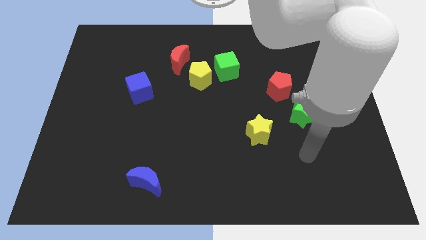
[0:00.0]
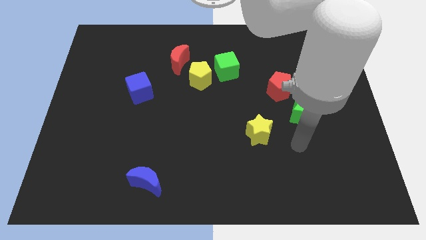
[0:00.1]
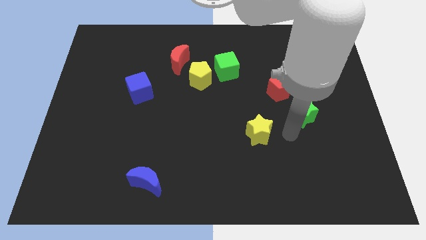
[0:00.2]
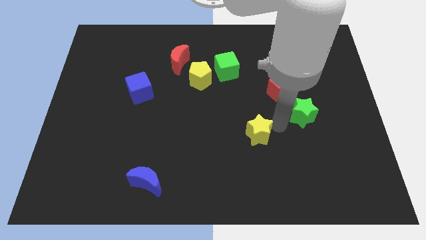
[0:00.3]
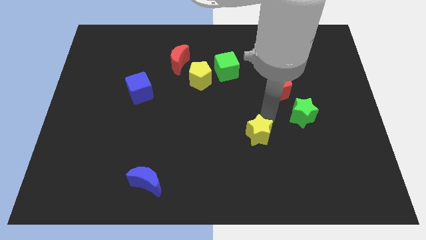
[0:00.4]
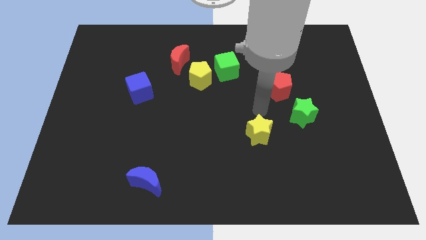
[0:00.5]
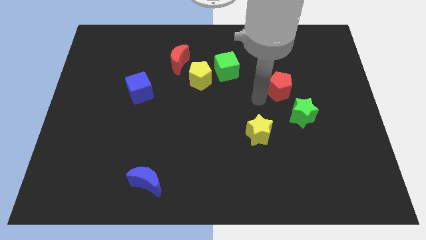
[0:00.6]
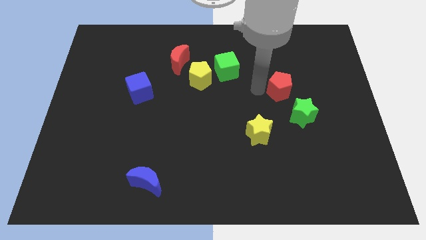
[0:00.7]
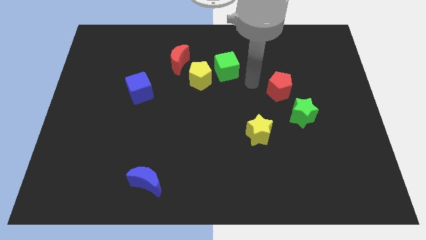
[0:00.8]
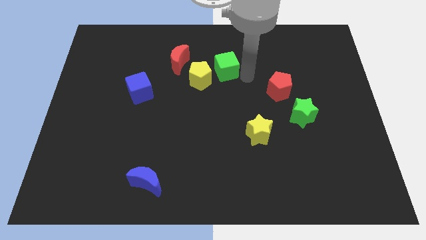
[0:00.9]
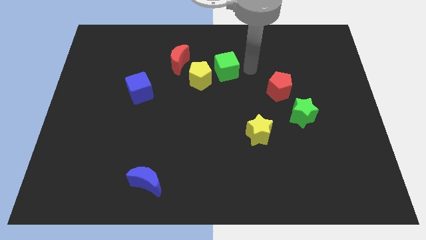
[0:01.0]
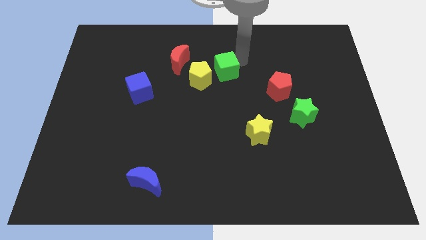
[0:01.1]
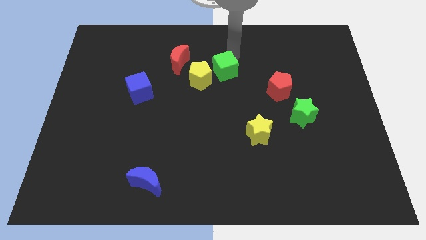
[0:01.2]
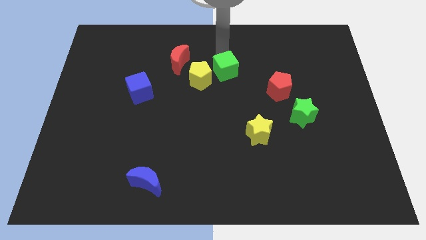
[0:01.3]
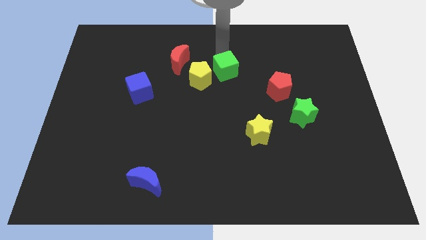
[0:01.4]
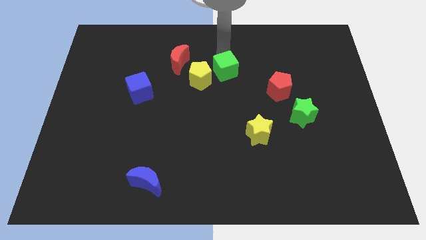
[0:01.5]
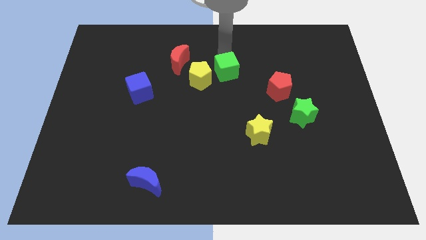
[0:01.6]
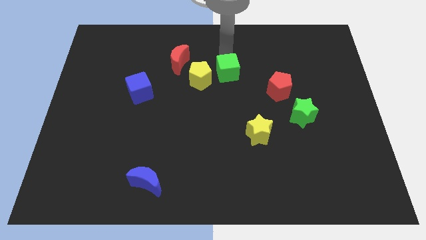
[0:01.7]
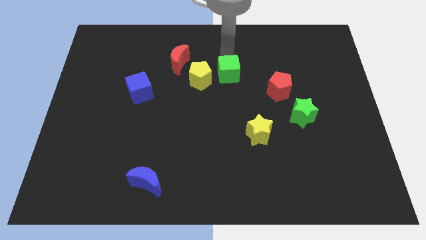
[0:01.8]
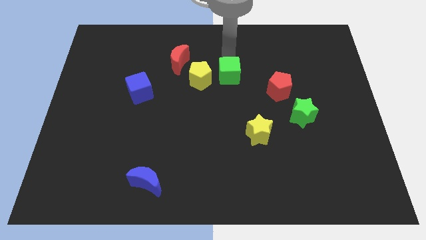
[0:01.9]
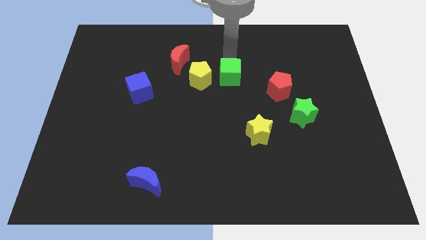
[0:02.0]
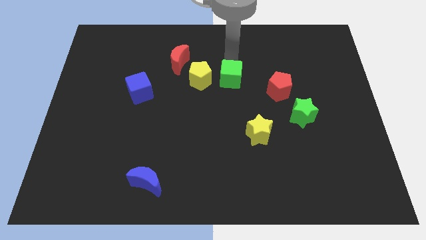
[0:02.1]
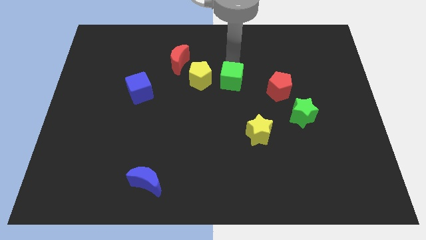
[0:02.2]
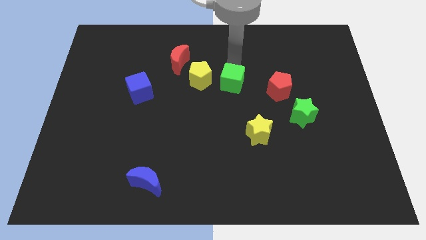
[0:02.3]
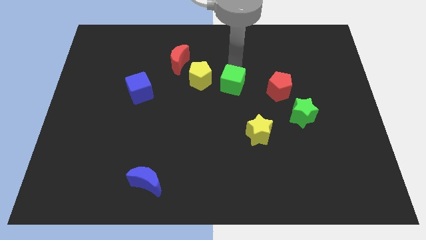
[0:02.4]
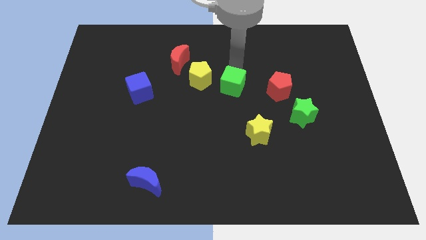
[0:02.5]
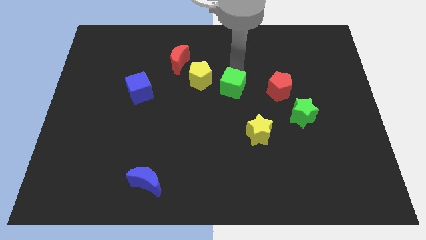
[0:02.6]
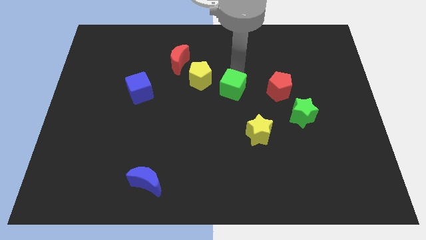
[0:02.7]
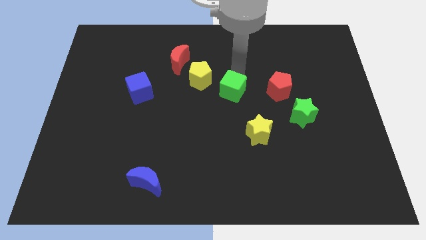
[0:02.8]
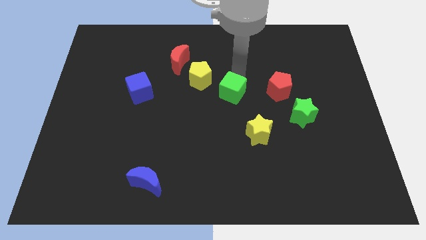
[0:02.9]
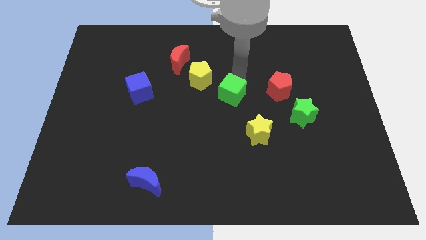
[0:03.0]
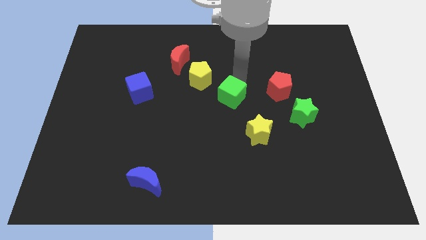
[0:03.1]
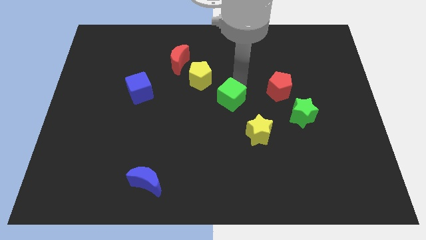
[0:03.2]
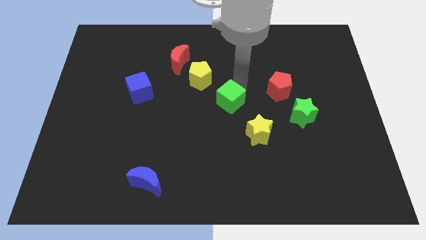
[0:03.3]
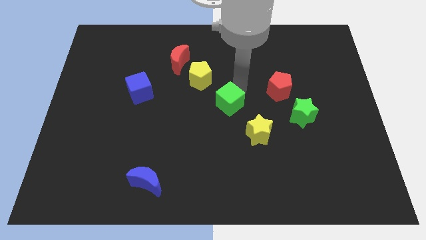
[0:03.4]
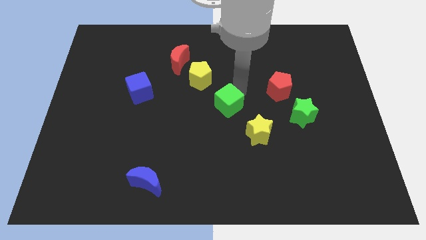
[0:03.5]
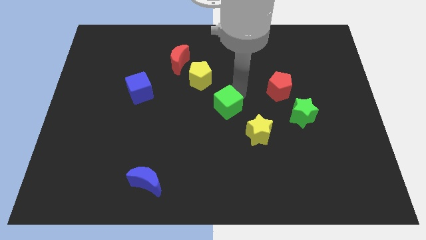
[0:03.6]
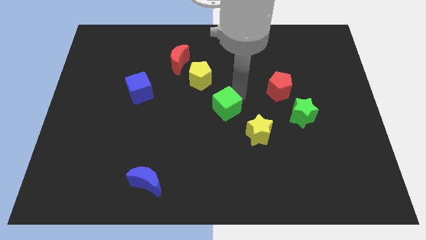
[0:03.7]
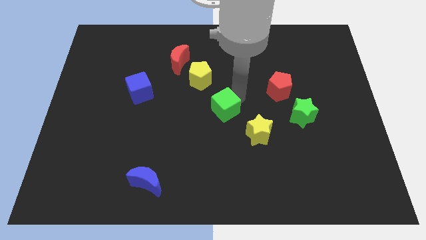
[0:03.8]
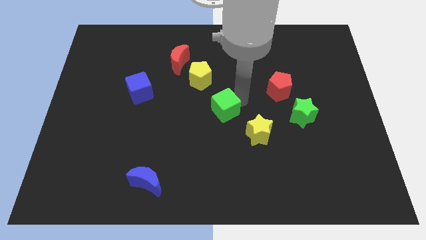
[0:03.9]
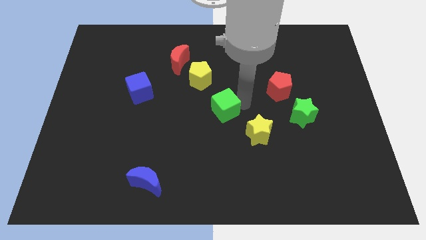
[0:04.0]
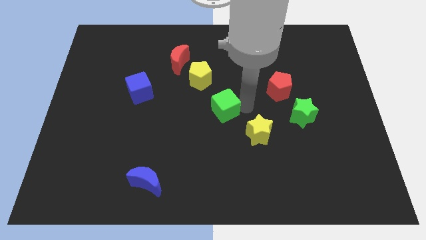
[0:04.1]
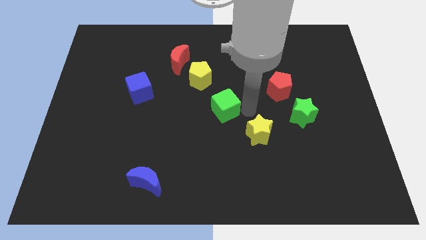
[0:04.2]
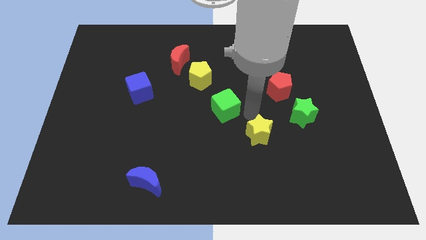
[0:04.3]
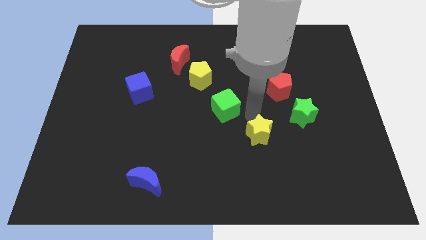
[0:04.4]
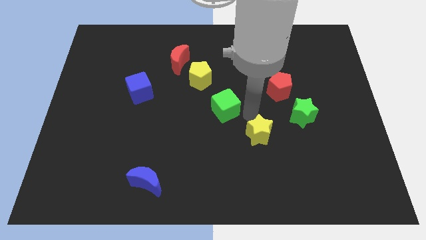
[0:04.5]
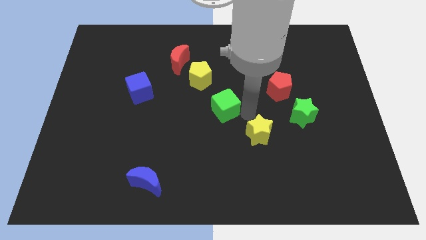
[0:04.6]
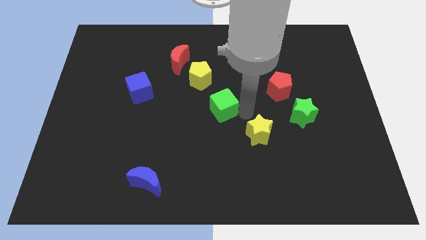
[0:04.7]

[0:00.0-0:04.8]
slide the green cube a little diagonally down and left

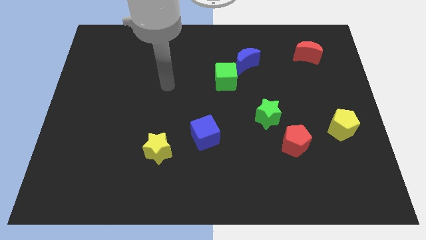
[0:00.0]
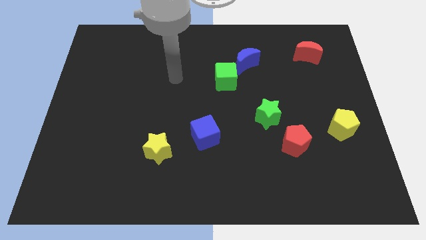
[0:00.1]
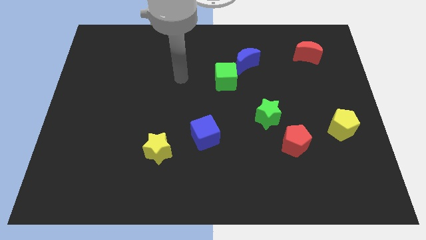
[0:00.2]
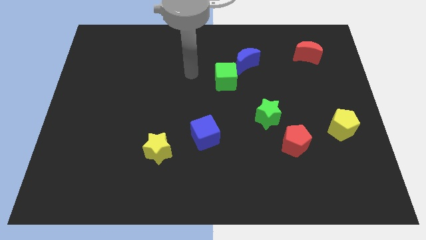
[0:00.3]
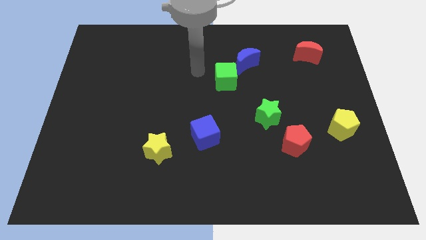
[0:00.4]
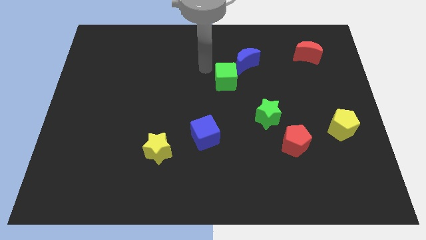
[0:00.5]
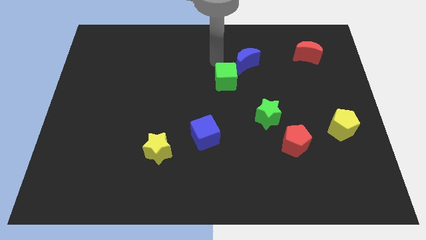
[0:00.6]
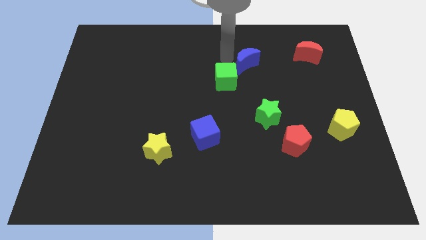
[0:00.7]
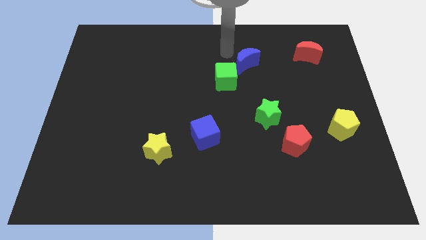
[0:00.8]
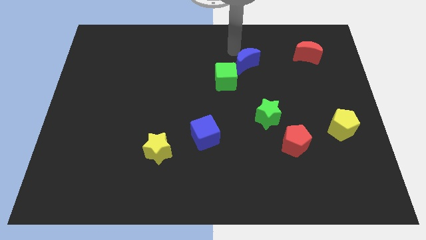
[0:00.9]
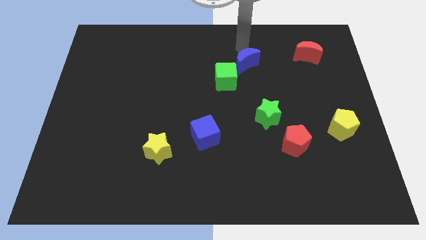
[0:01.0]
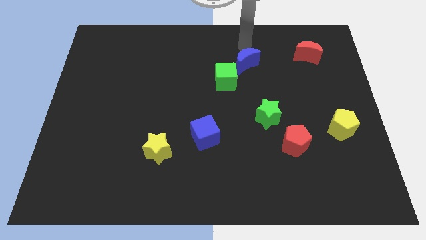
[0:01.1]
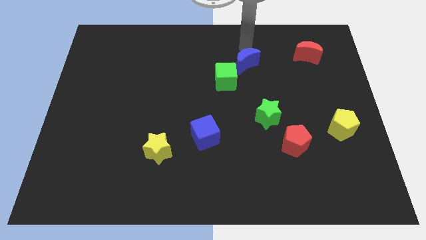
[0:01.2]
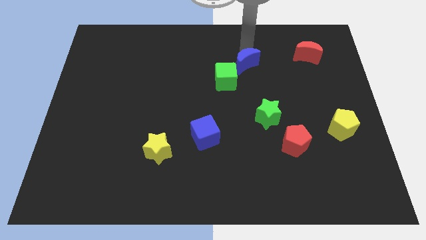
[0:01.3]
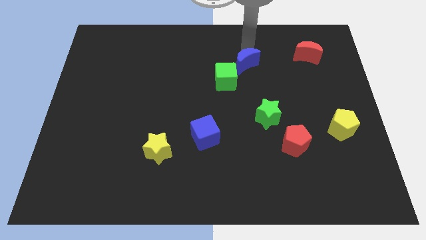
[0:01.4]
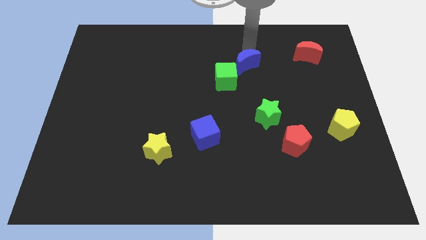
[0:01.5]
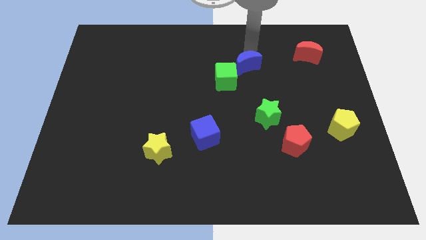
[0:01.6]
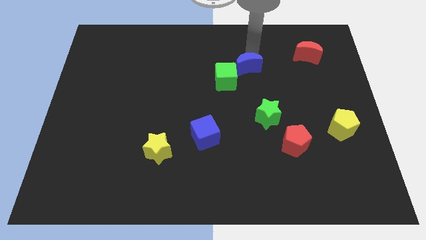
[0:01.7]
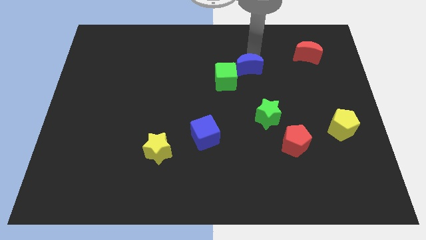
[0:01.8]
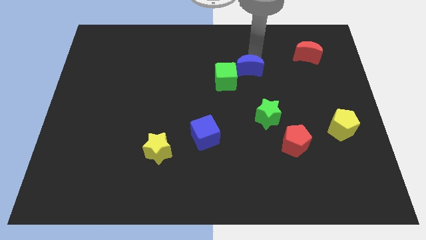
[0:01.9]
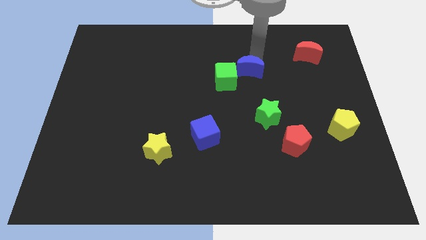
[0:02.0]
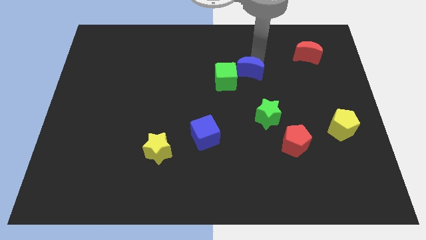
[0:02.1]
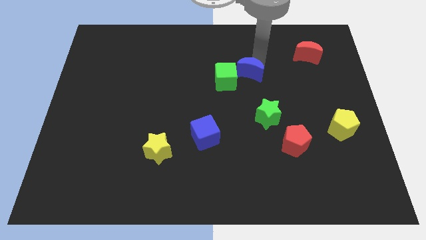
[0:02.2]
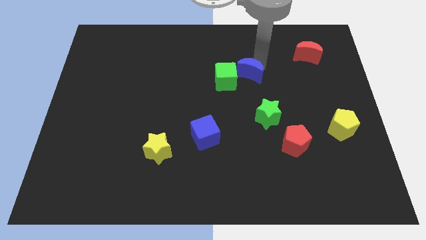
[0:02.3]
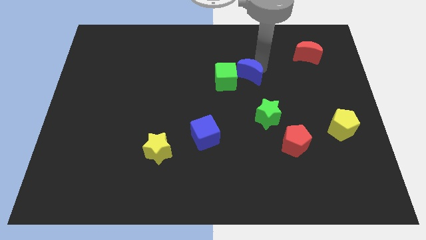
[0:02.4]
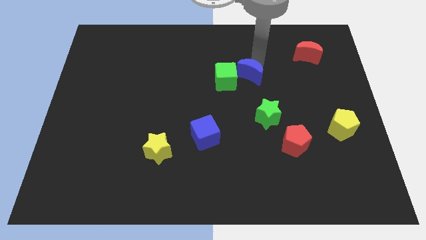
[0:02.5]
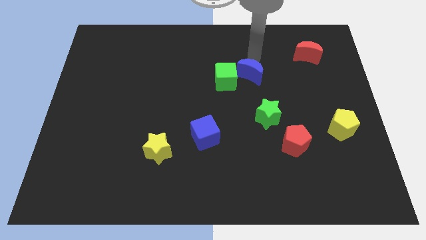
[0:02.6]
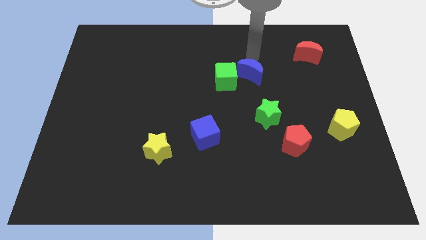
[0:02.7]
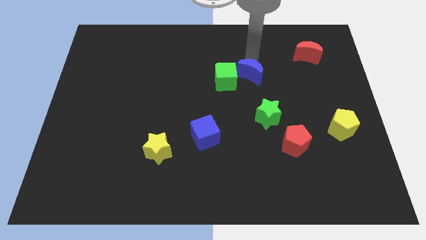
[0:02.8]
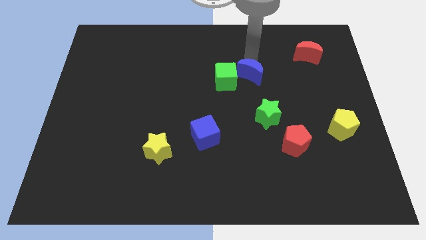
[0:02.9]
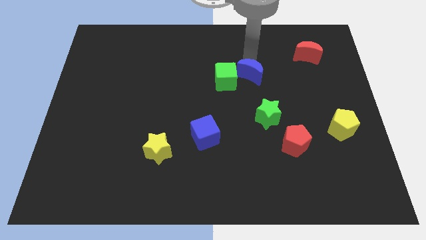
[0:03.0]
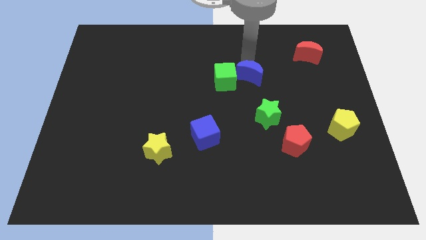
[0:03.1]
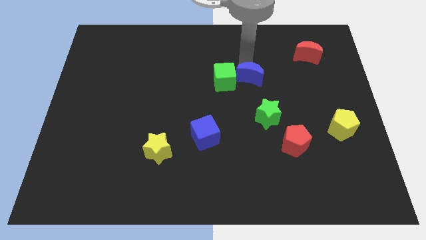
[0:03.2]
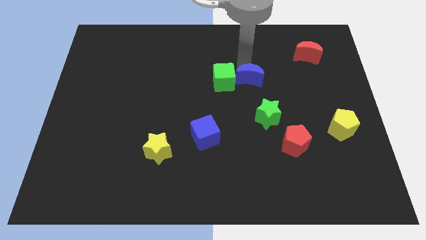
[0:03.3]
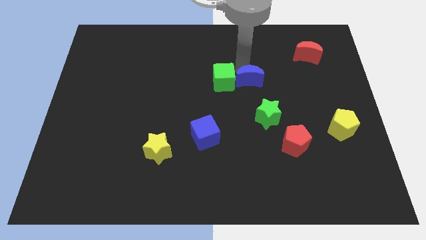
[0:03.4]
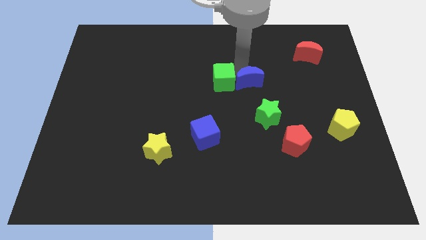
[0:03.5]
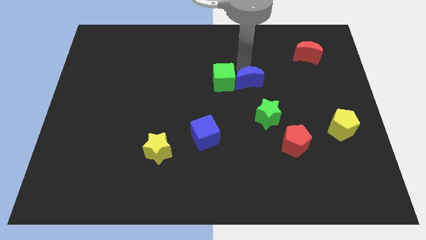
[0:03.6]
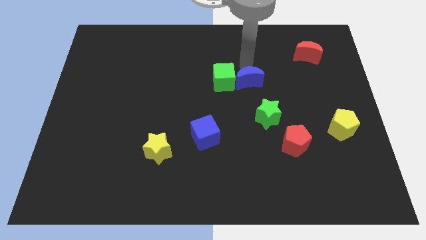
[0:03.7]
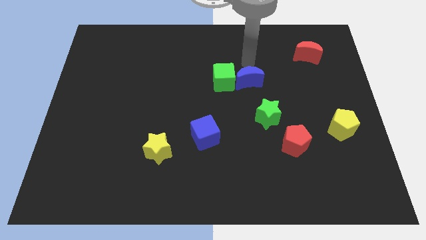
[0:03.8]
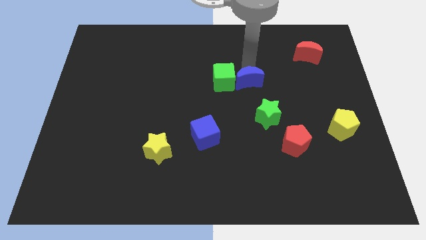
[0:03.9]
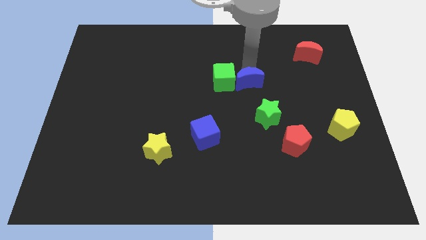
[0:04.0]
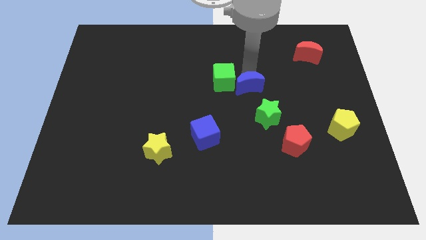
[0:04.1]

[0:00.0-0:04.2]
slightly push the blue moon down
